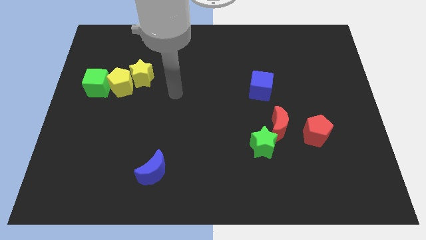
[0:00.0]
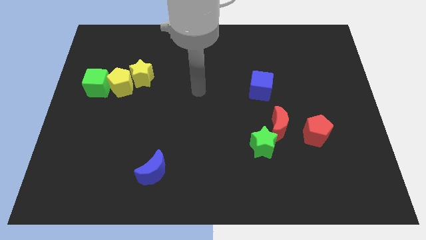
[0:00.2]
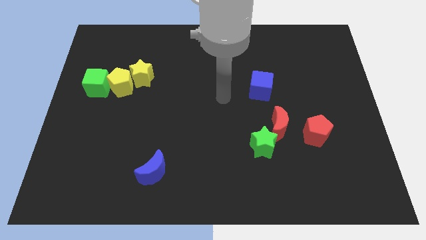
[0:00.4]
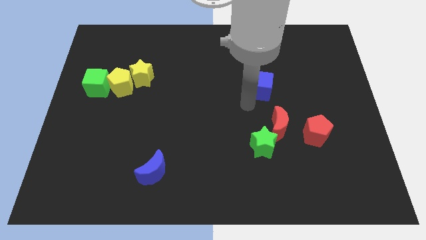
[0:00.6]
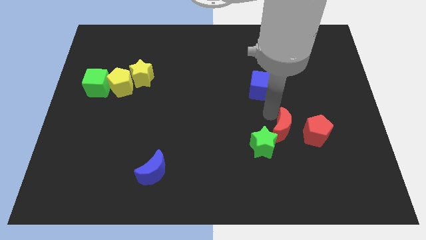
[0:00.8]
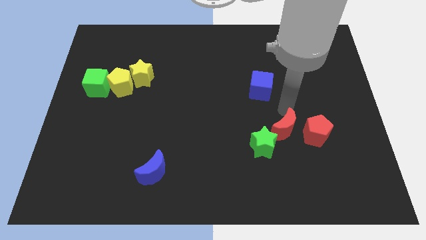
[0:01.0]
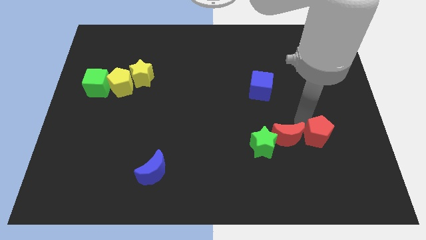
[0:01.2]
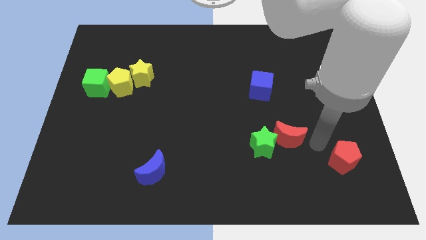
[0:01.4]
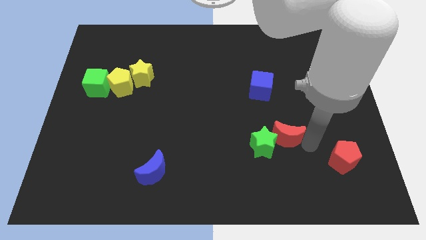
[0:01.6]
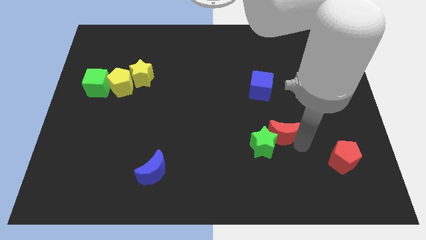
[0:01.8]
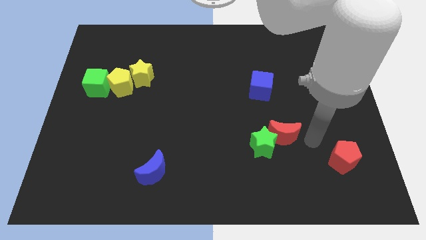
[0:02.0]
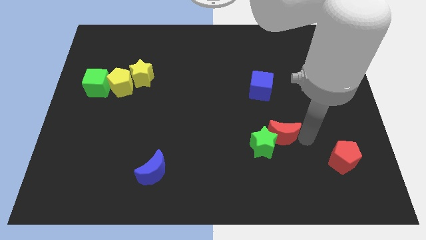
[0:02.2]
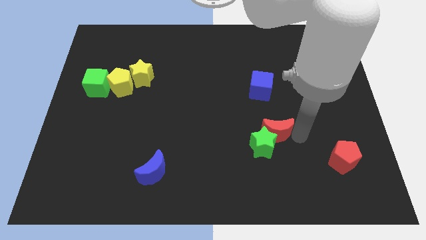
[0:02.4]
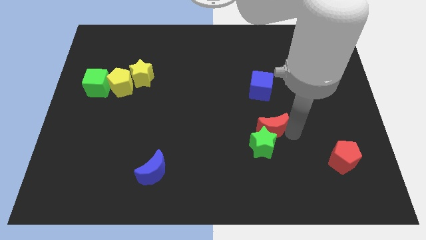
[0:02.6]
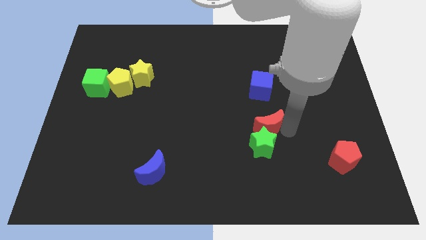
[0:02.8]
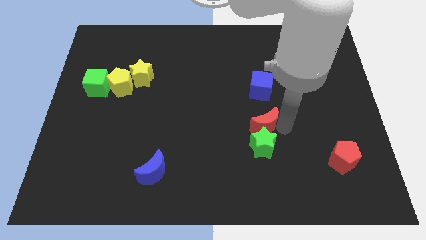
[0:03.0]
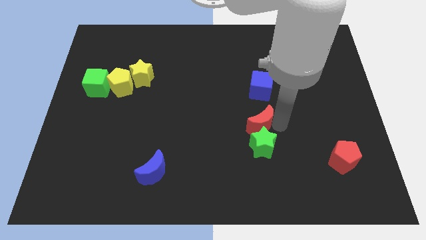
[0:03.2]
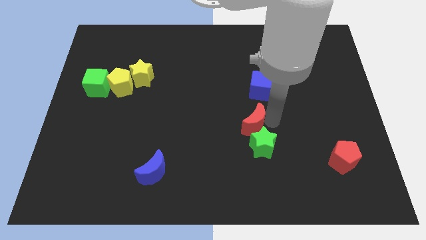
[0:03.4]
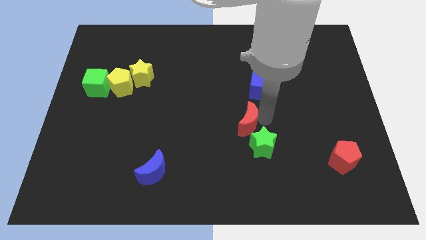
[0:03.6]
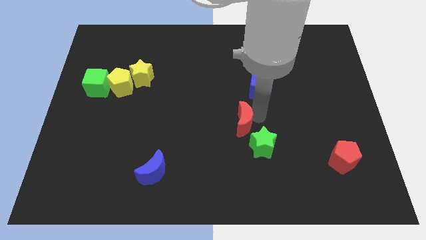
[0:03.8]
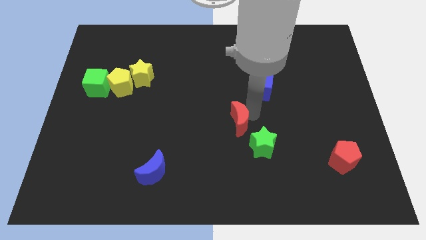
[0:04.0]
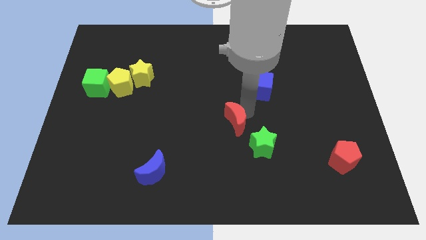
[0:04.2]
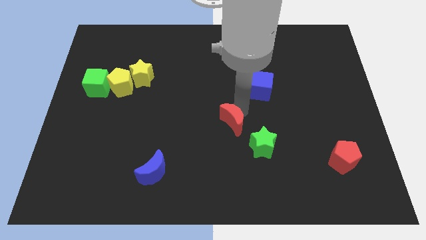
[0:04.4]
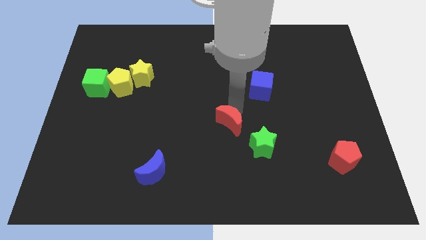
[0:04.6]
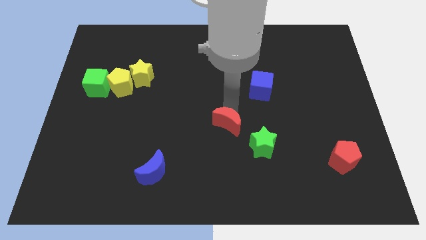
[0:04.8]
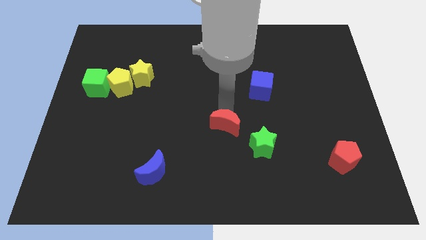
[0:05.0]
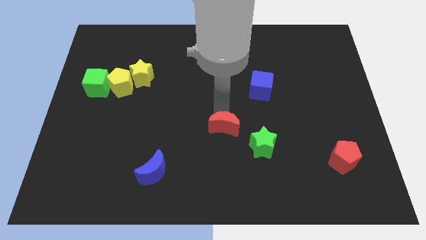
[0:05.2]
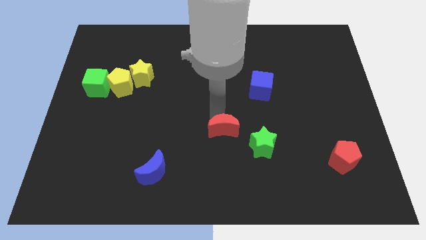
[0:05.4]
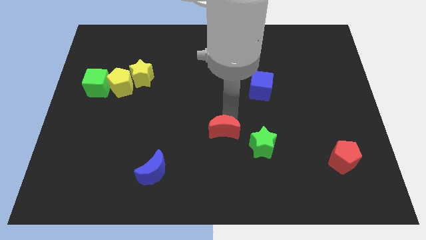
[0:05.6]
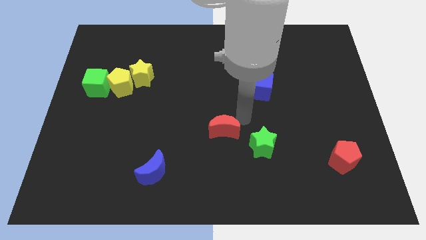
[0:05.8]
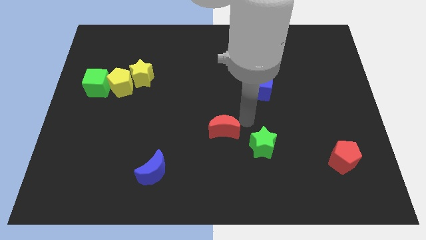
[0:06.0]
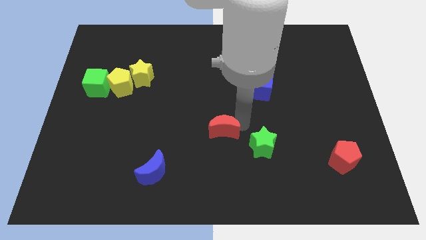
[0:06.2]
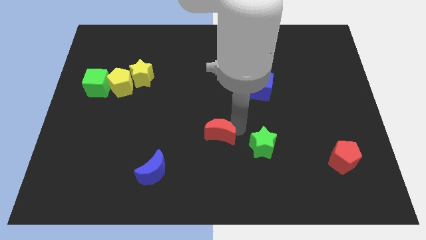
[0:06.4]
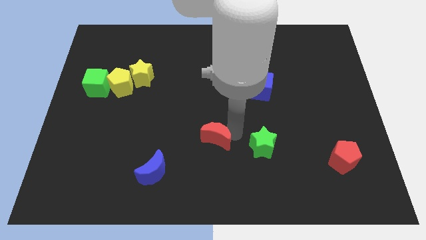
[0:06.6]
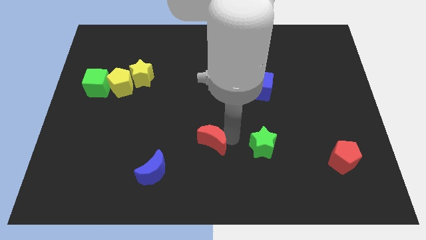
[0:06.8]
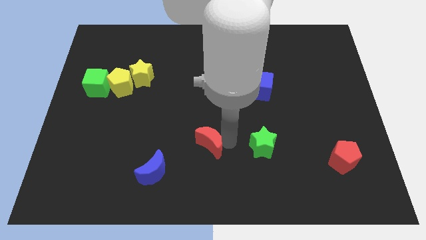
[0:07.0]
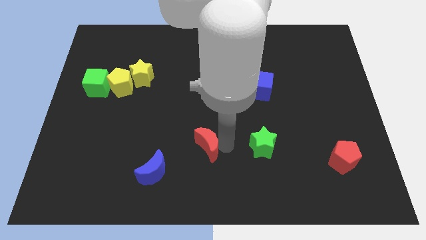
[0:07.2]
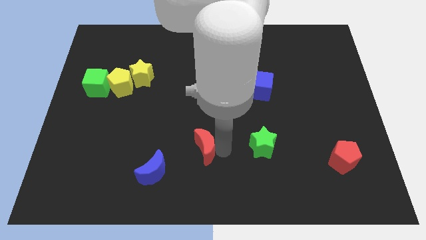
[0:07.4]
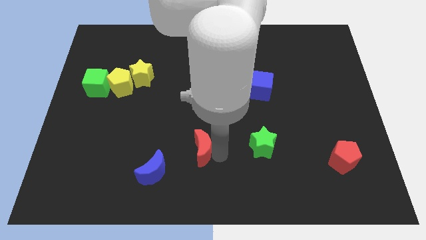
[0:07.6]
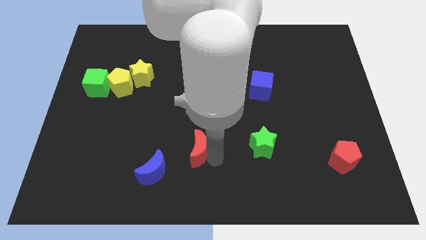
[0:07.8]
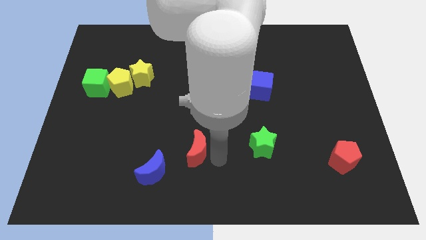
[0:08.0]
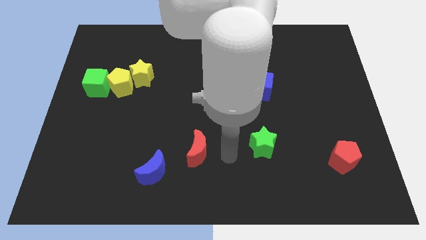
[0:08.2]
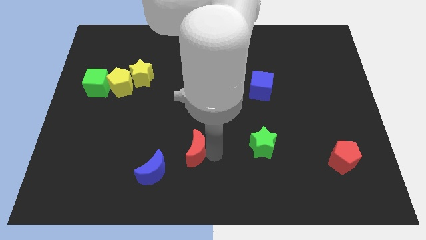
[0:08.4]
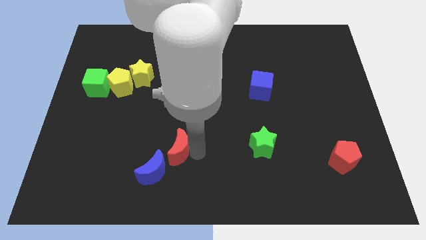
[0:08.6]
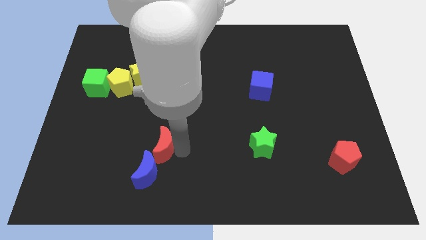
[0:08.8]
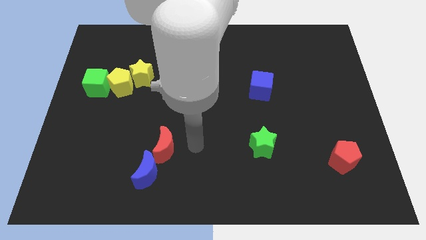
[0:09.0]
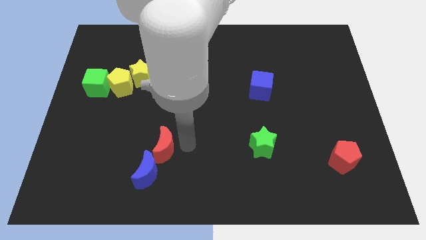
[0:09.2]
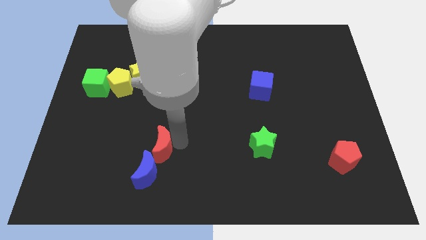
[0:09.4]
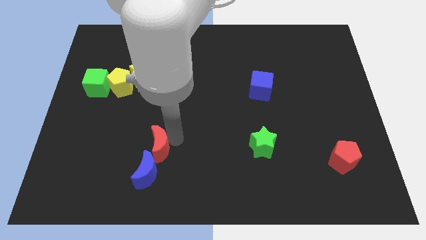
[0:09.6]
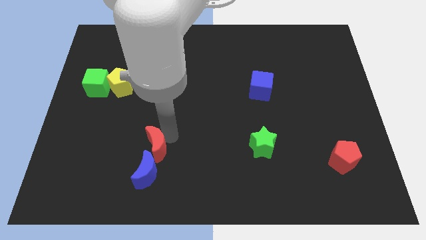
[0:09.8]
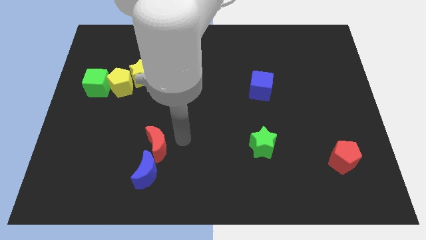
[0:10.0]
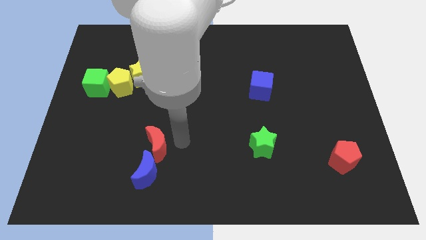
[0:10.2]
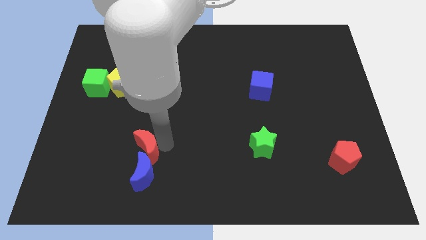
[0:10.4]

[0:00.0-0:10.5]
put the red moon to the top left of the blue moon

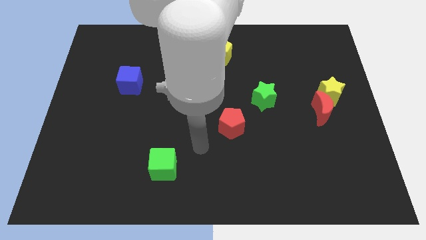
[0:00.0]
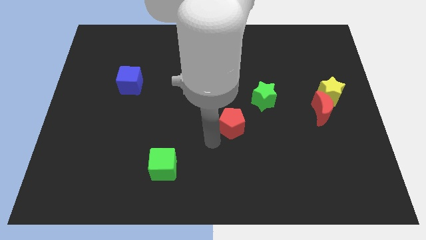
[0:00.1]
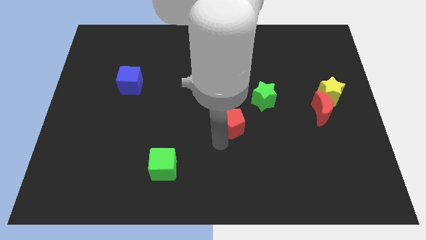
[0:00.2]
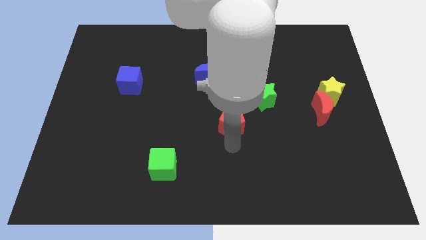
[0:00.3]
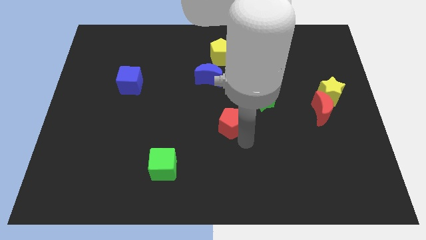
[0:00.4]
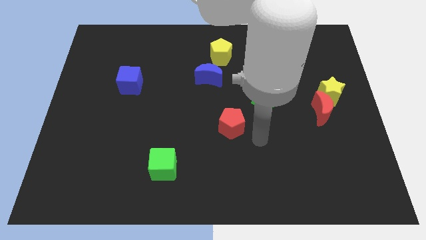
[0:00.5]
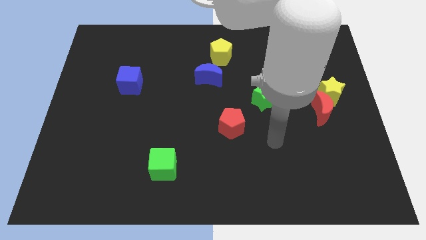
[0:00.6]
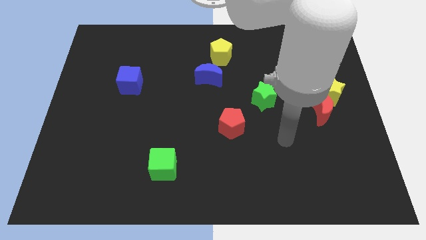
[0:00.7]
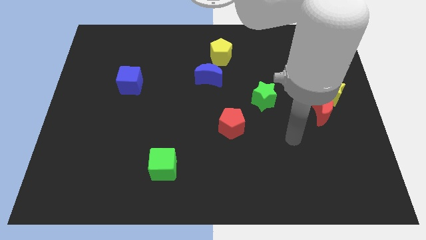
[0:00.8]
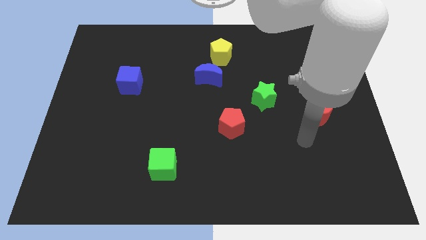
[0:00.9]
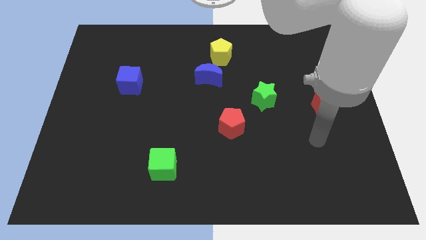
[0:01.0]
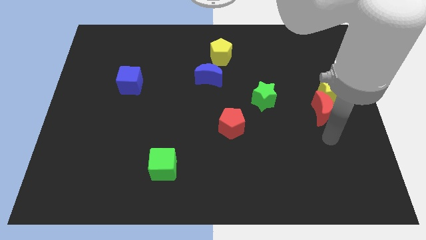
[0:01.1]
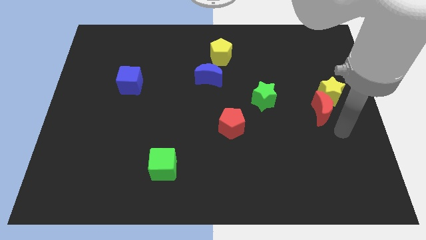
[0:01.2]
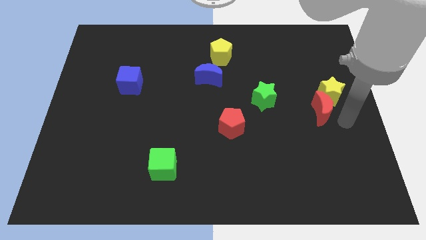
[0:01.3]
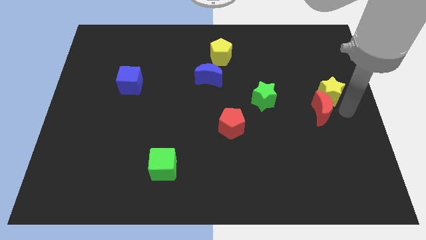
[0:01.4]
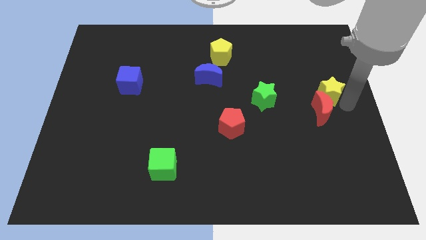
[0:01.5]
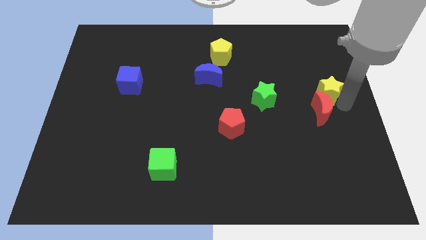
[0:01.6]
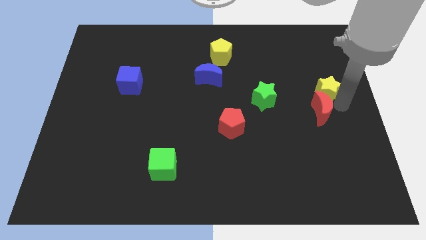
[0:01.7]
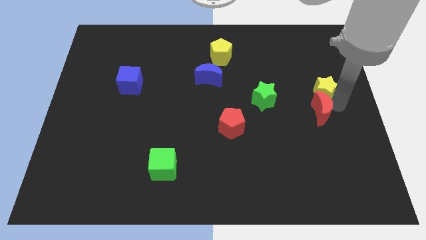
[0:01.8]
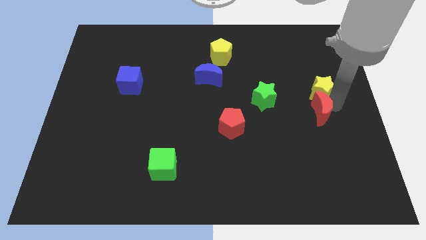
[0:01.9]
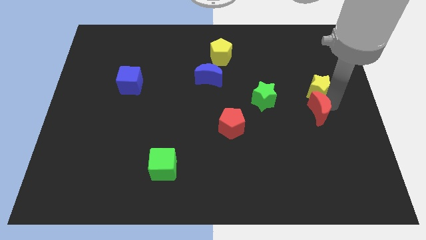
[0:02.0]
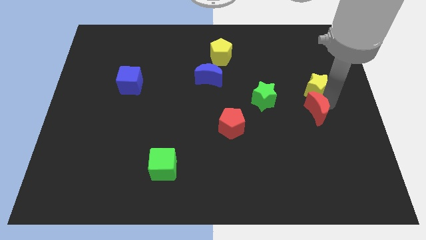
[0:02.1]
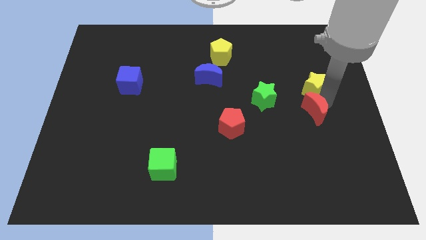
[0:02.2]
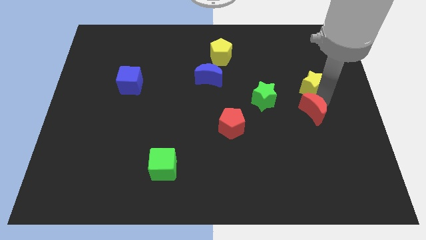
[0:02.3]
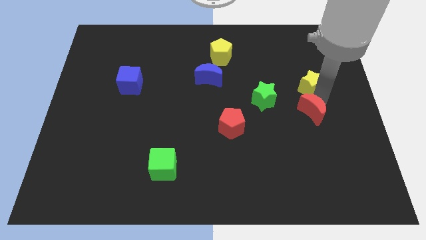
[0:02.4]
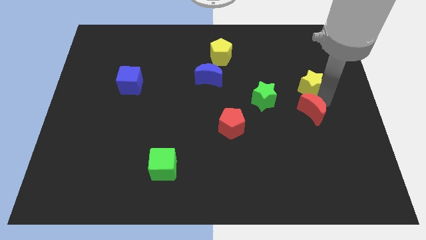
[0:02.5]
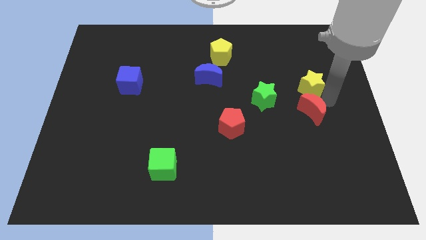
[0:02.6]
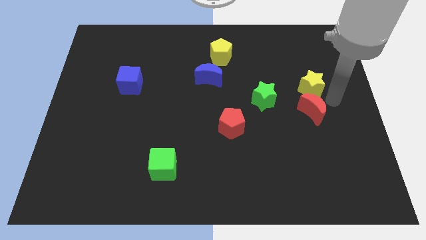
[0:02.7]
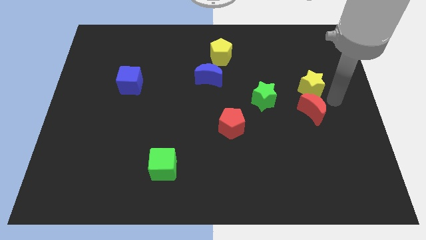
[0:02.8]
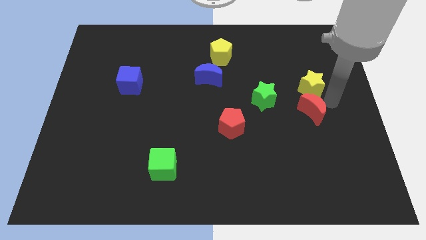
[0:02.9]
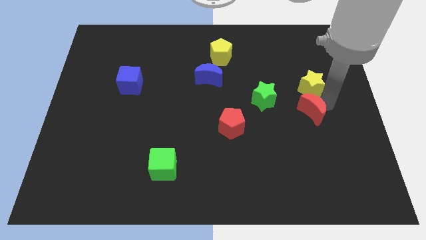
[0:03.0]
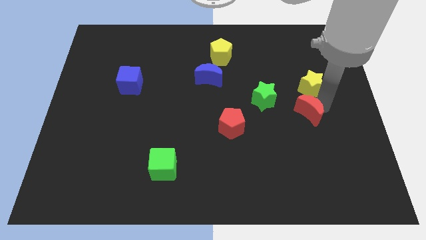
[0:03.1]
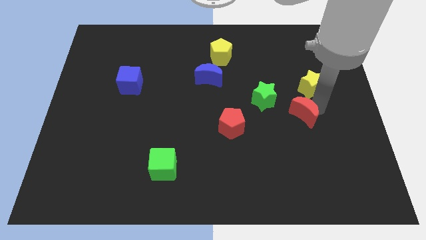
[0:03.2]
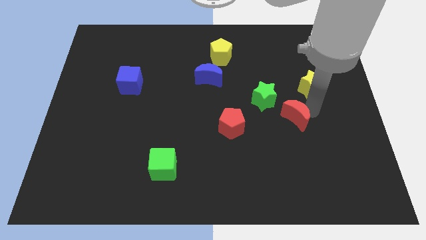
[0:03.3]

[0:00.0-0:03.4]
push the red moon to the right side of the red pentagon
